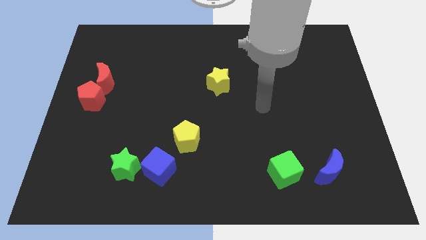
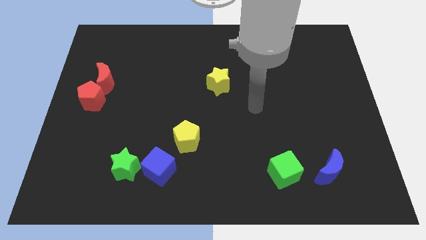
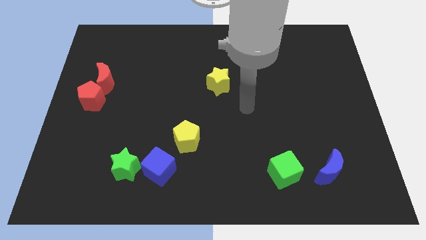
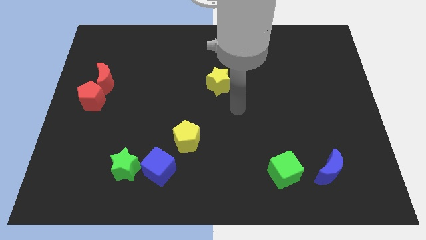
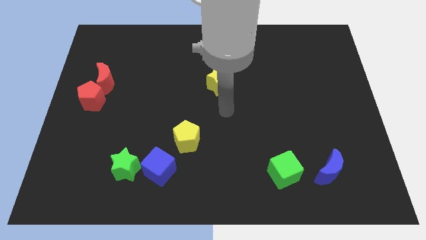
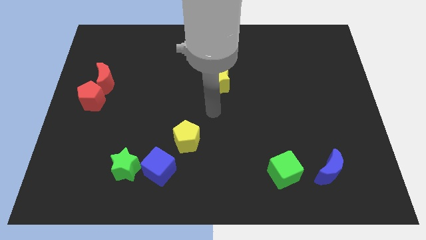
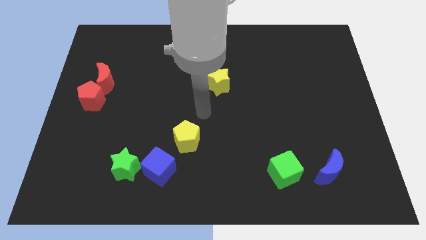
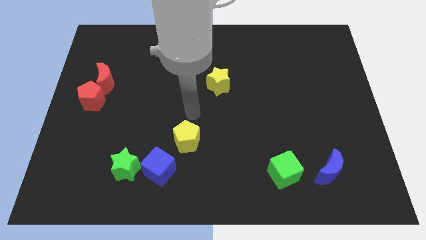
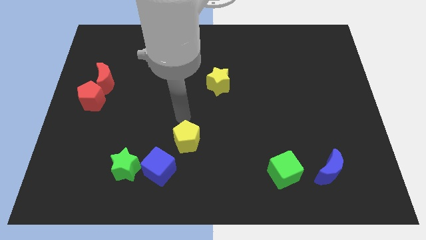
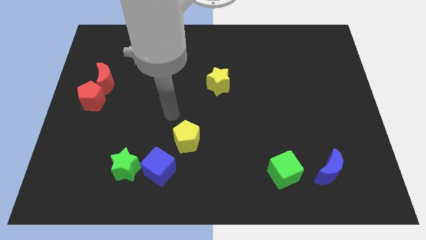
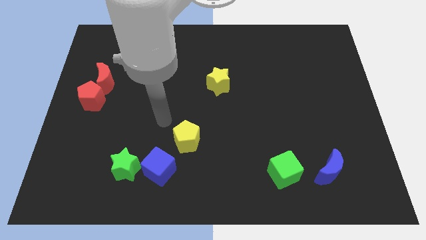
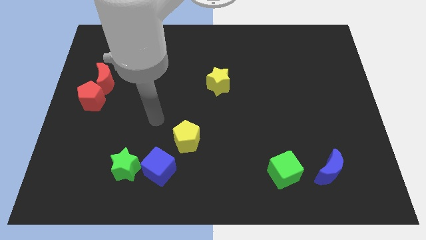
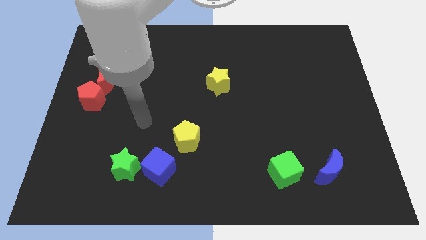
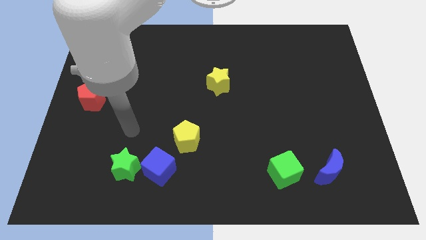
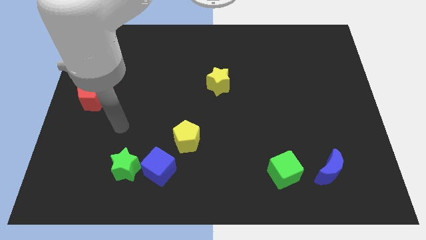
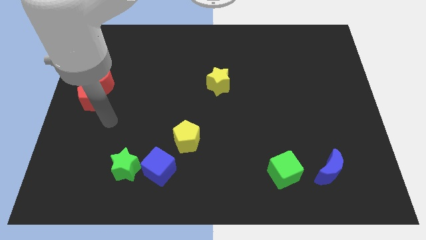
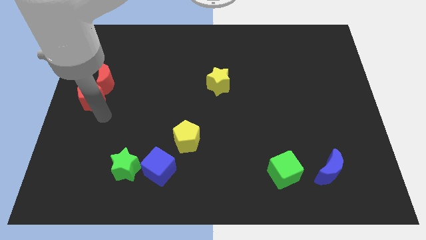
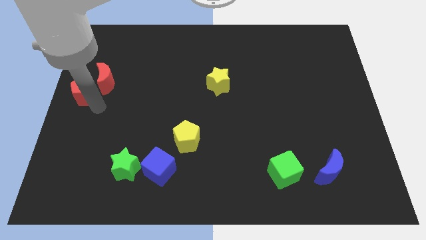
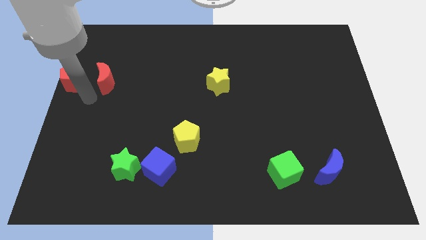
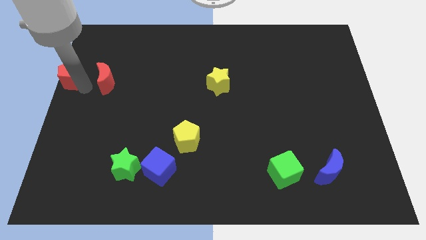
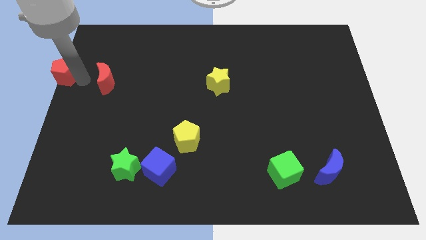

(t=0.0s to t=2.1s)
move the red moon away from the red pentagon

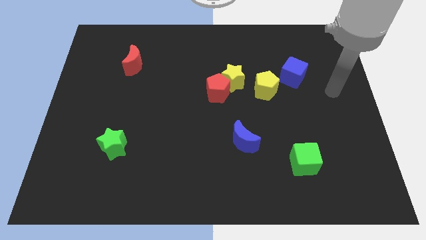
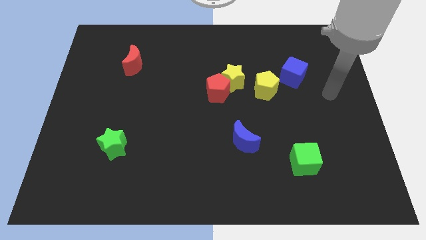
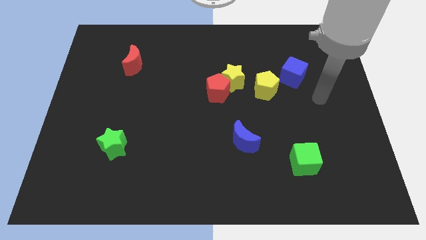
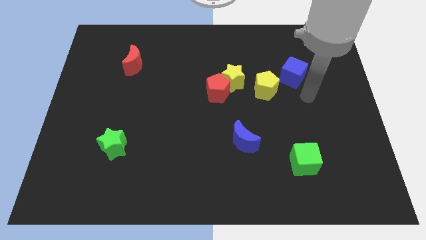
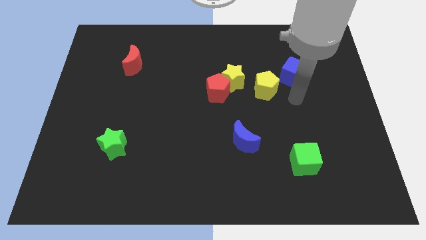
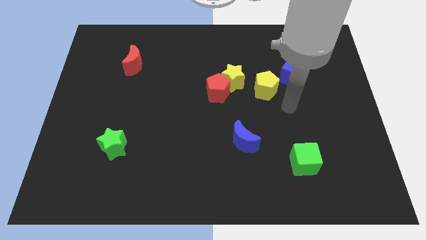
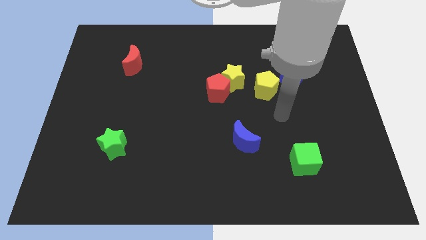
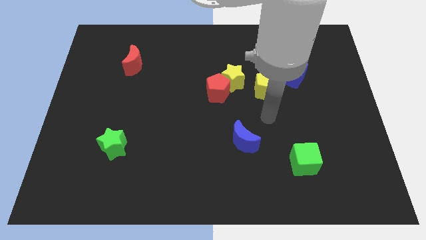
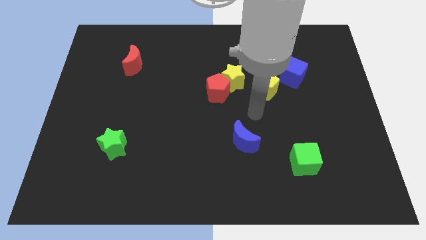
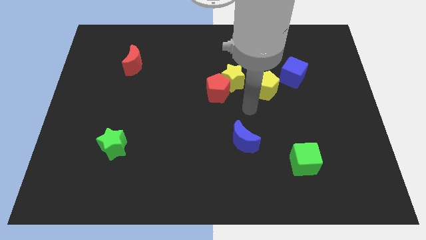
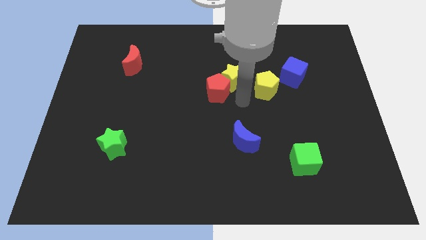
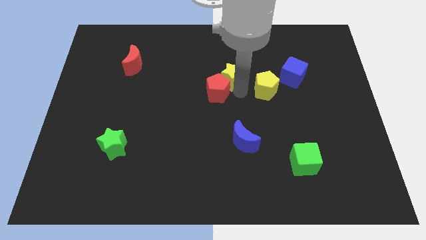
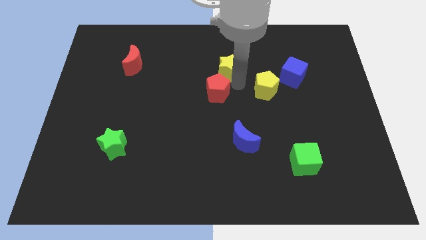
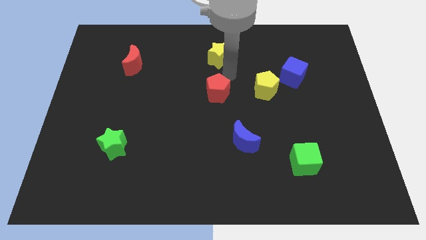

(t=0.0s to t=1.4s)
pull the red pentagon apart from the yellow star

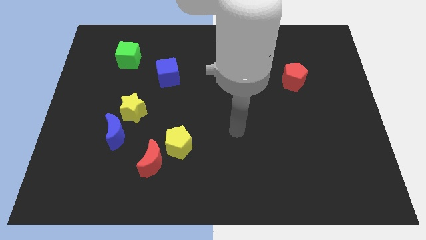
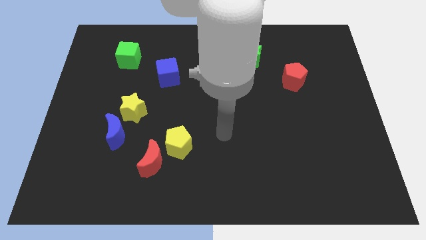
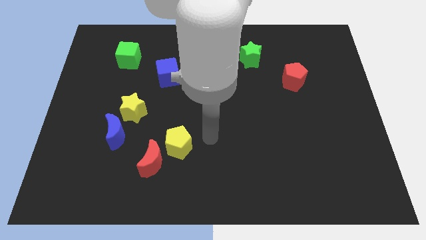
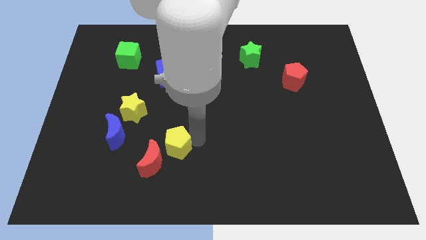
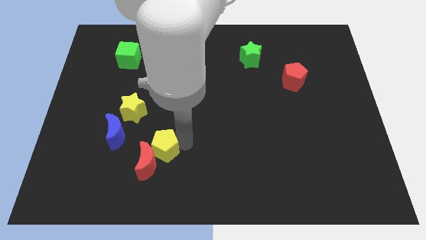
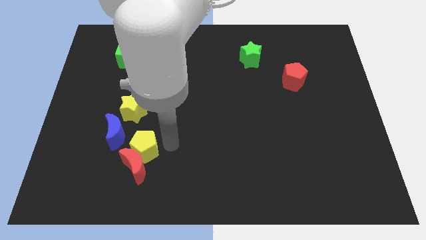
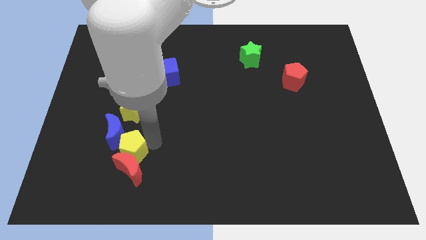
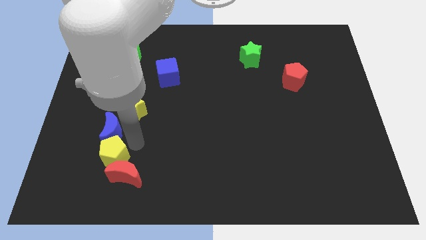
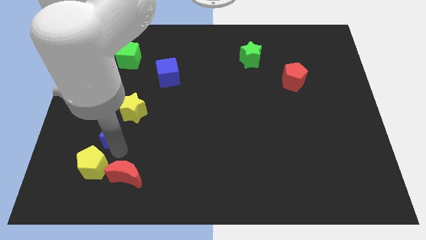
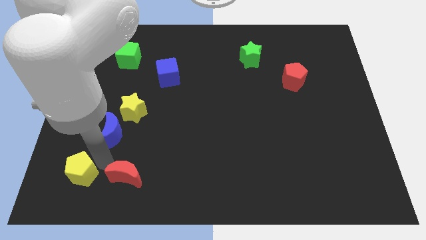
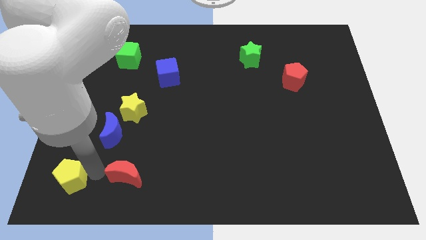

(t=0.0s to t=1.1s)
pull the red moon apart from the yellow pentagon

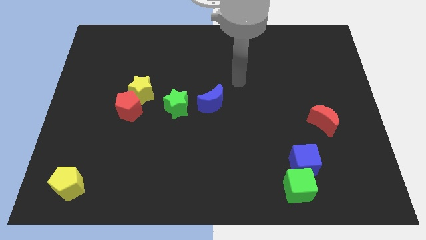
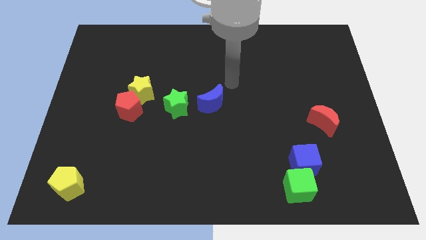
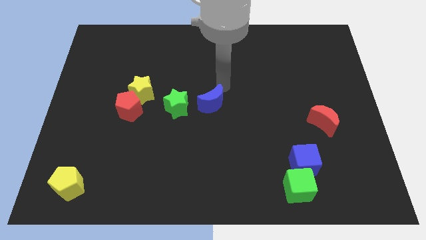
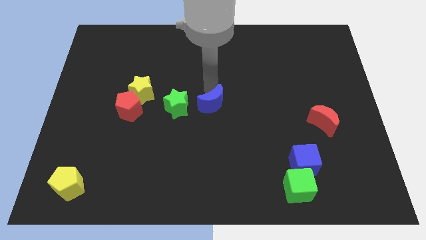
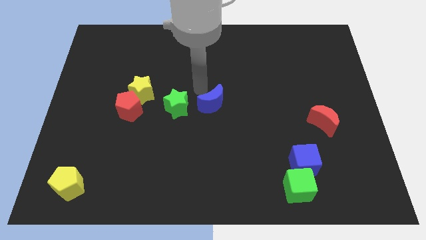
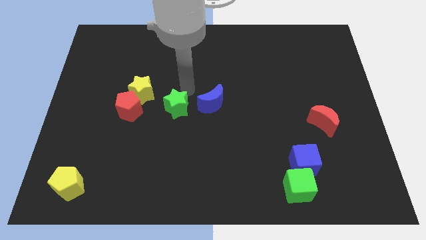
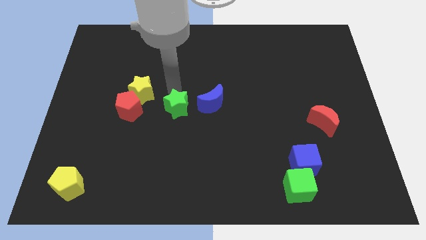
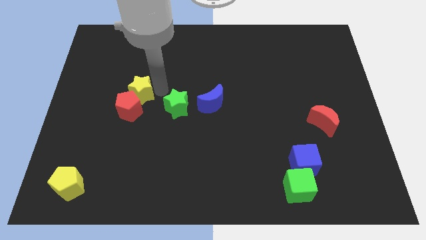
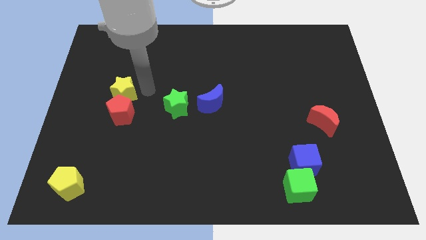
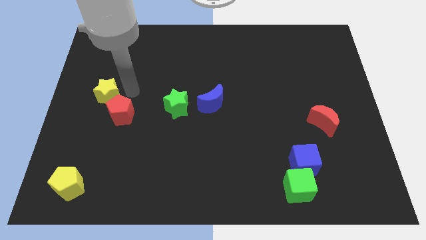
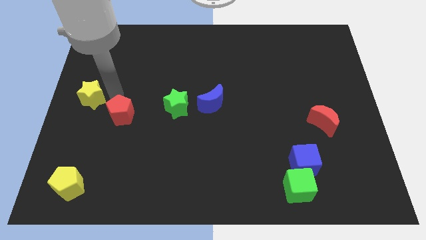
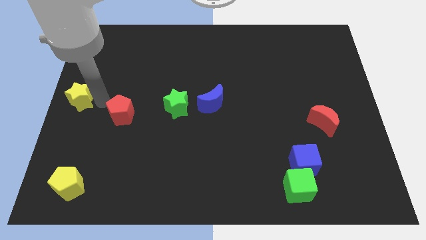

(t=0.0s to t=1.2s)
separate the red pentagon from the yellow star

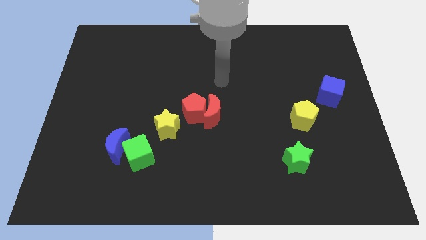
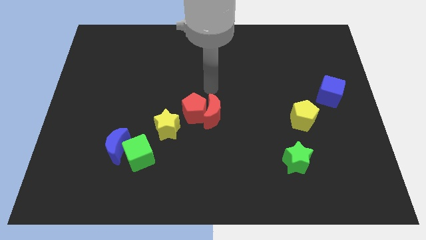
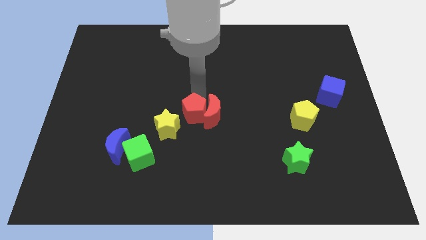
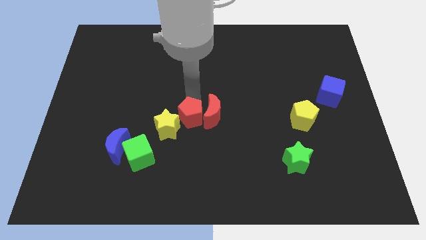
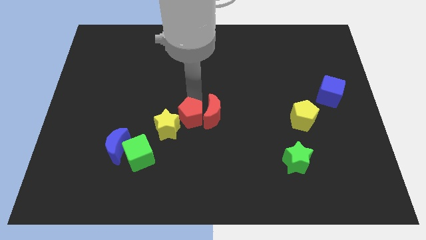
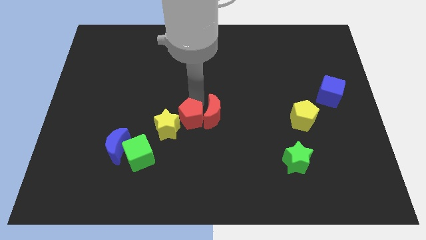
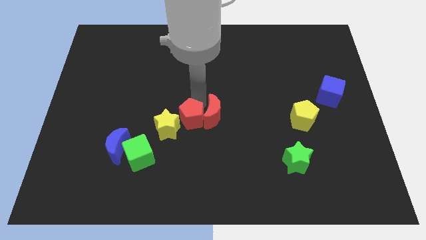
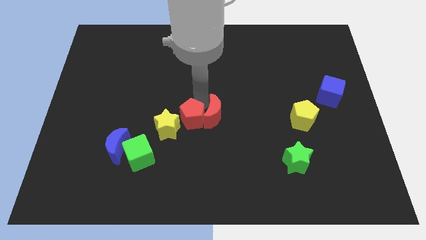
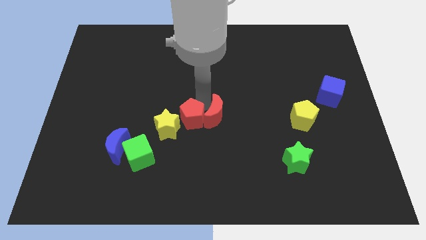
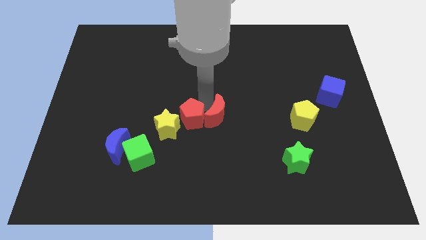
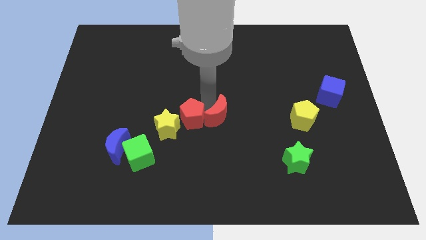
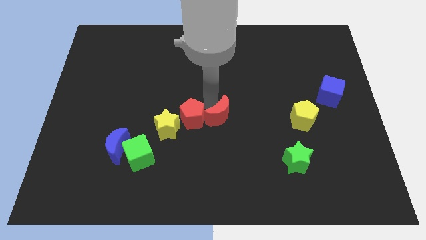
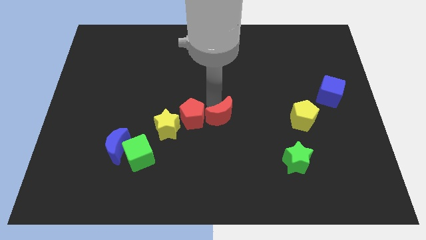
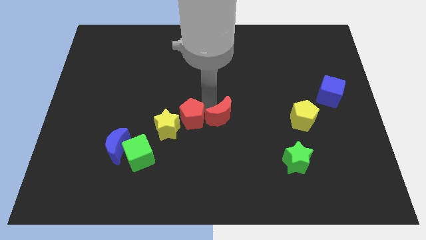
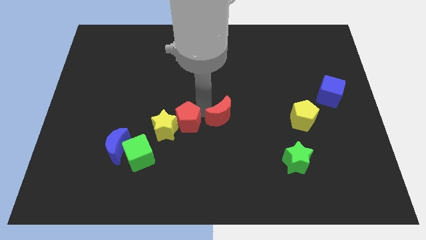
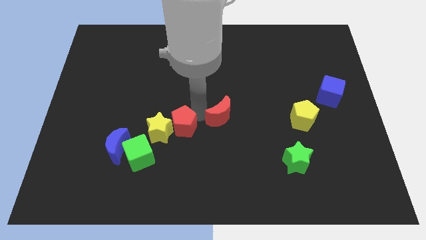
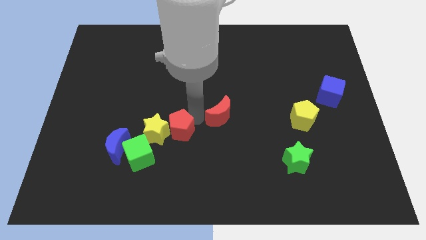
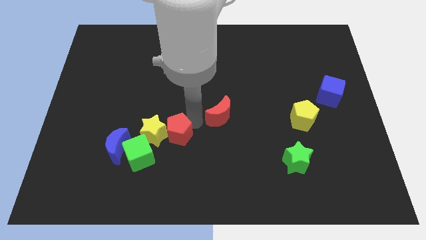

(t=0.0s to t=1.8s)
separate the red moon from the red pentagon

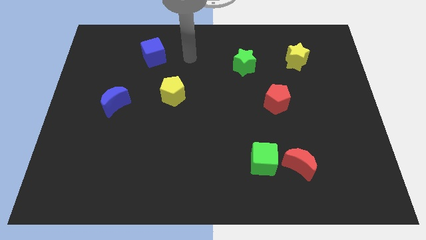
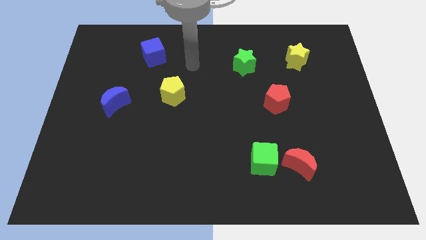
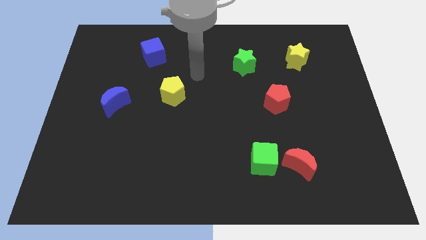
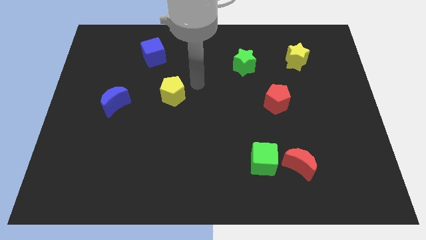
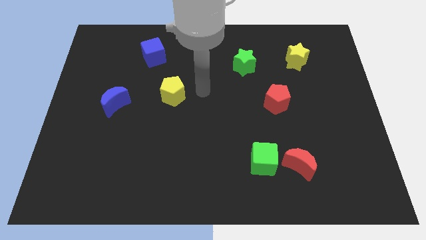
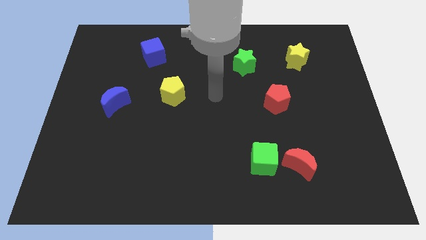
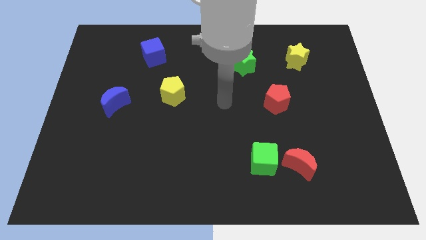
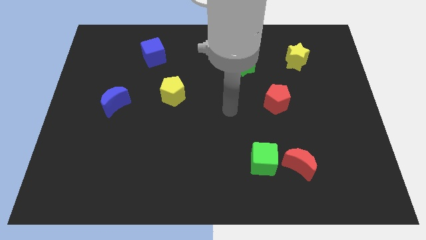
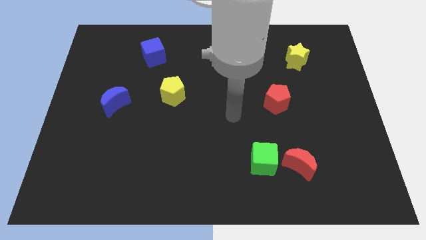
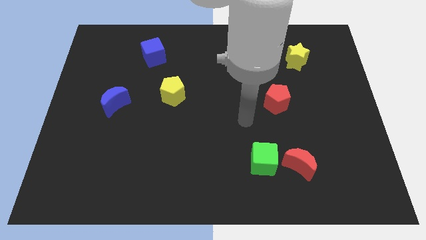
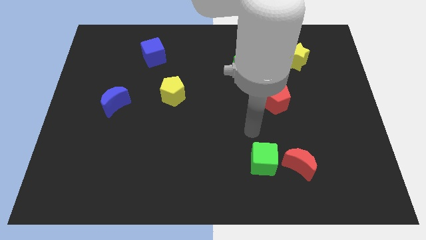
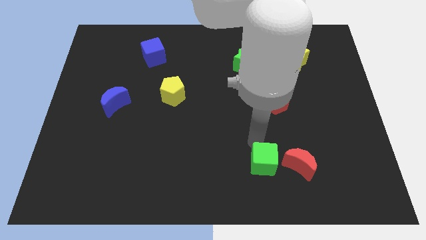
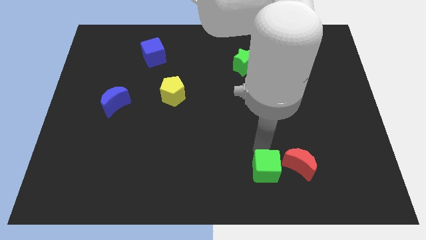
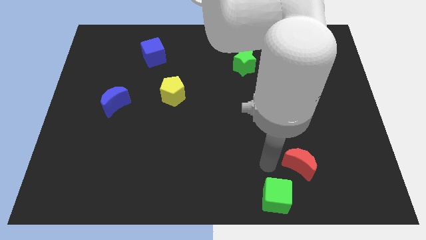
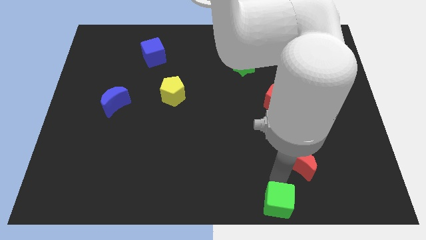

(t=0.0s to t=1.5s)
separate the red moon from the green cube

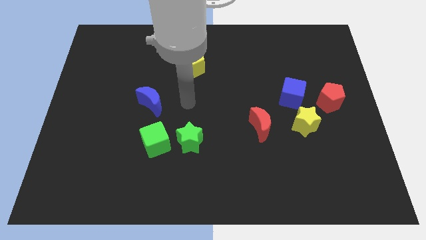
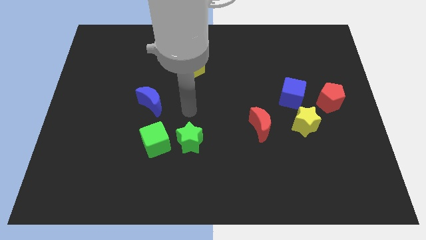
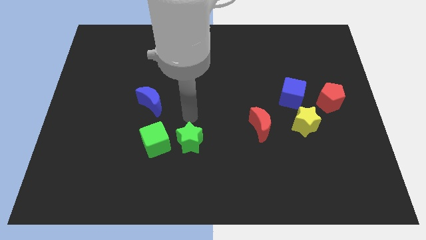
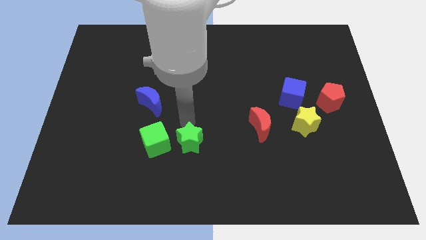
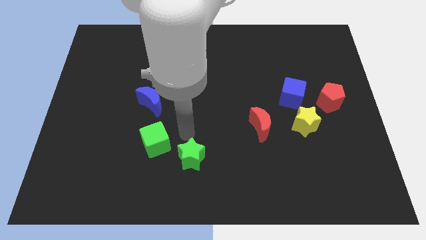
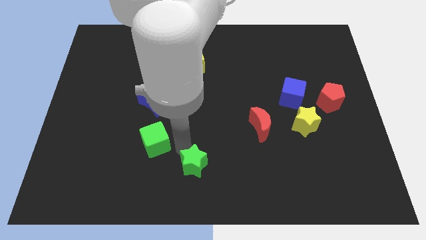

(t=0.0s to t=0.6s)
separate the green cube from the green star
